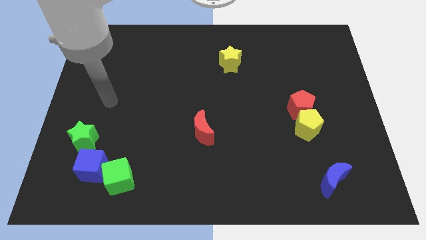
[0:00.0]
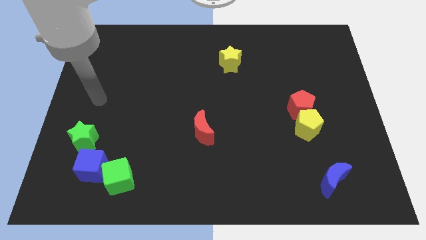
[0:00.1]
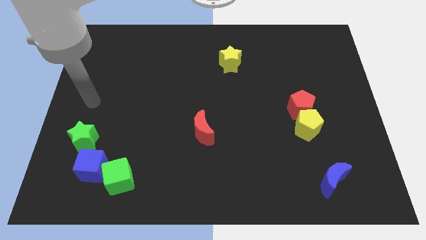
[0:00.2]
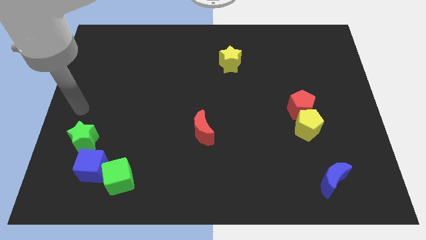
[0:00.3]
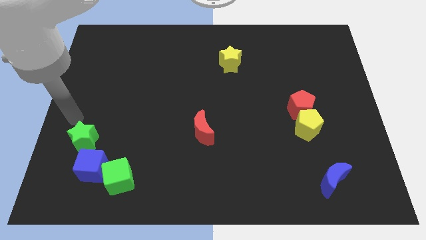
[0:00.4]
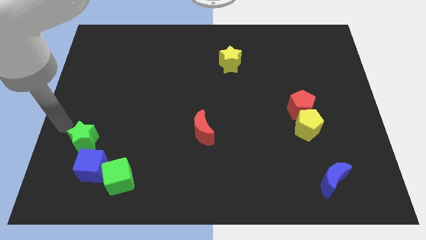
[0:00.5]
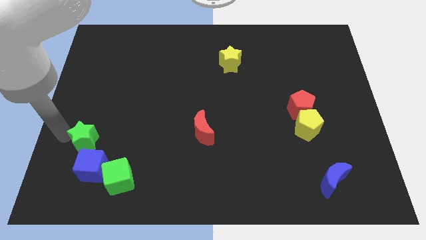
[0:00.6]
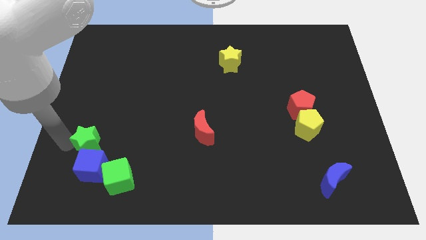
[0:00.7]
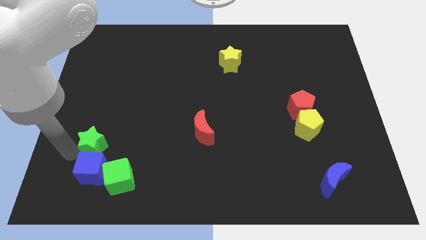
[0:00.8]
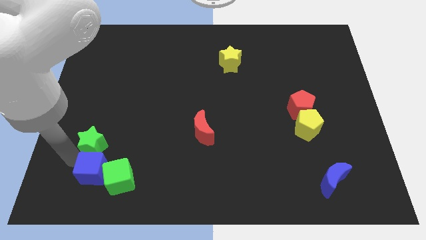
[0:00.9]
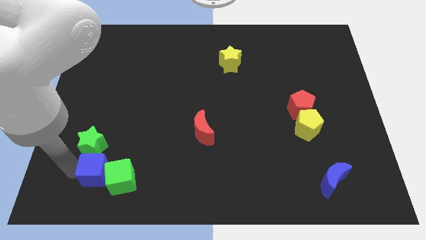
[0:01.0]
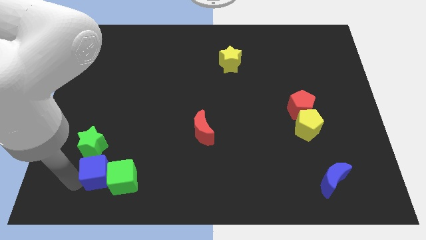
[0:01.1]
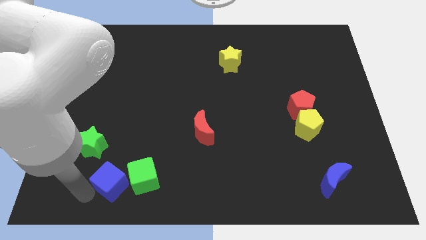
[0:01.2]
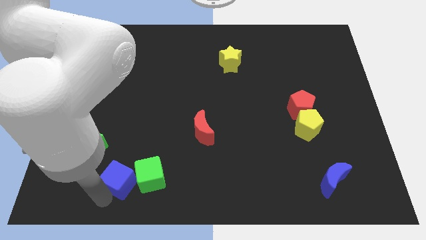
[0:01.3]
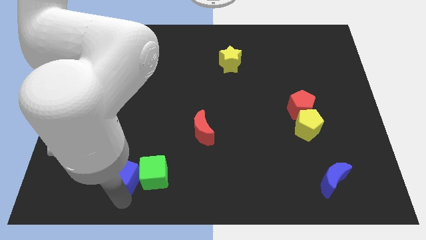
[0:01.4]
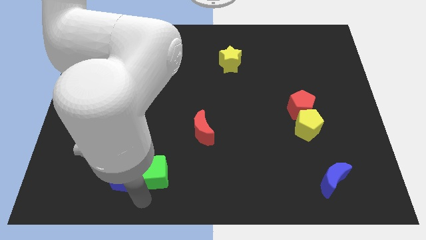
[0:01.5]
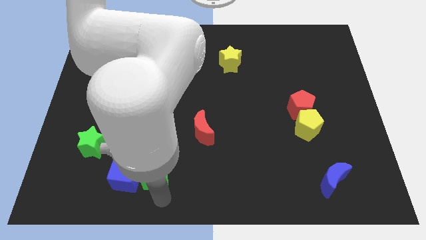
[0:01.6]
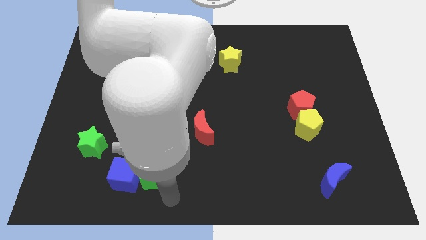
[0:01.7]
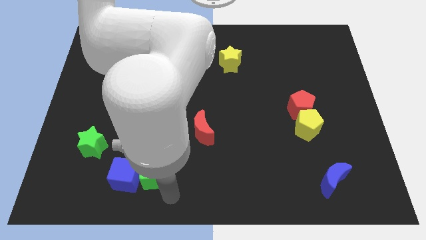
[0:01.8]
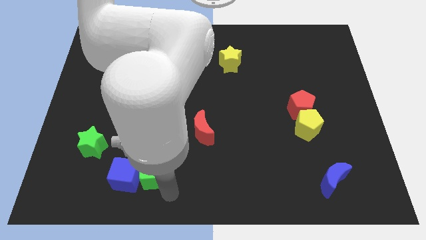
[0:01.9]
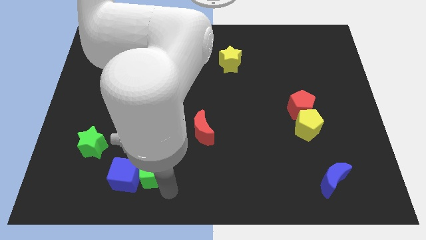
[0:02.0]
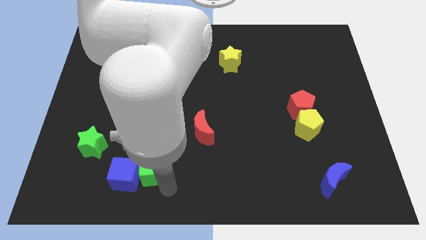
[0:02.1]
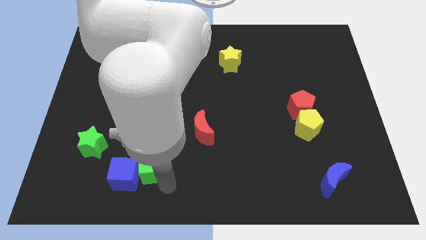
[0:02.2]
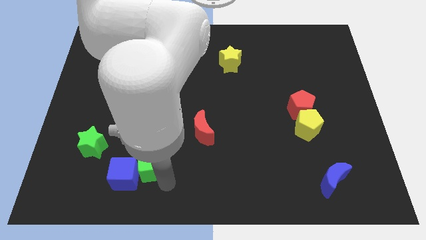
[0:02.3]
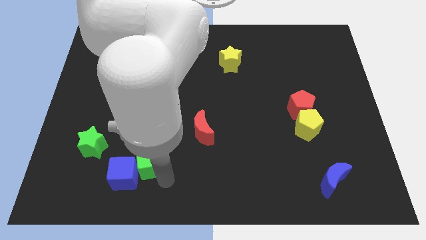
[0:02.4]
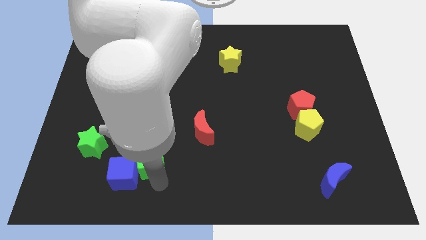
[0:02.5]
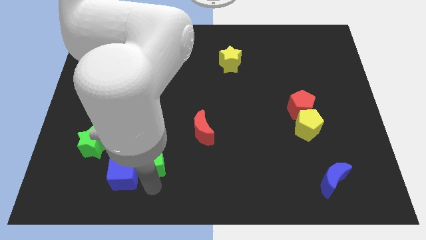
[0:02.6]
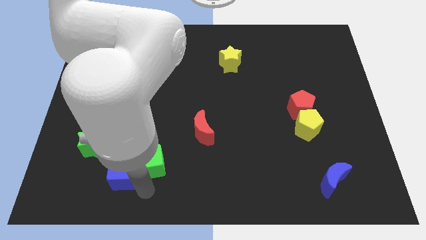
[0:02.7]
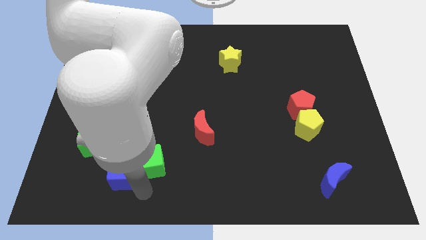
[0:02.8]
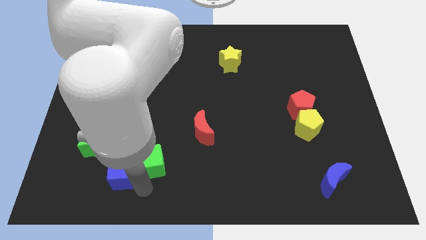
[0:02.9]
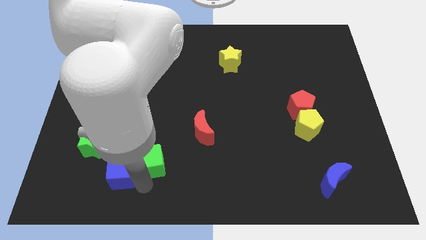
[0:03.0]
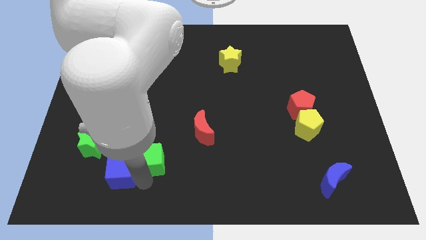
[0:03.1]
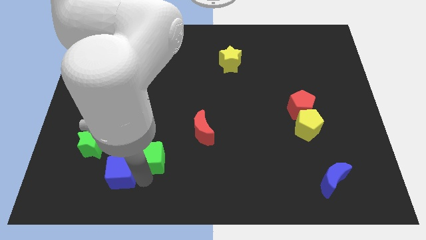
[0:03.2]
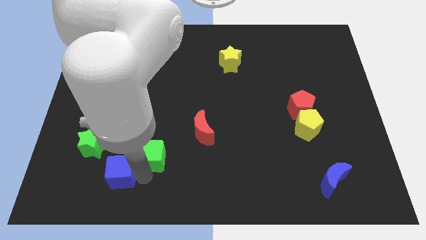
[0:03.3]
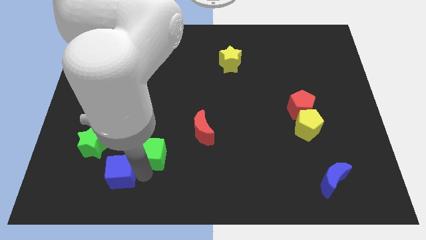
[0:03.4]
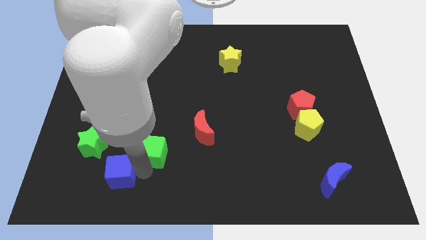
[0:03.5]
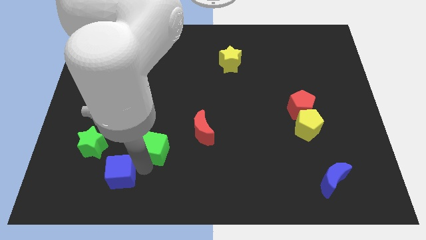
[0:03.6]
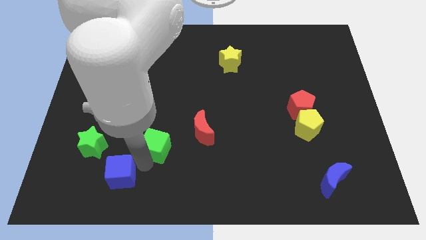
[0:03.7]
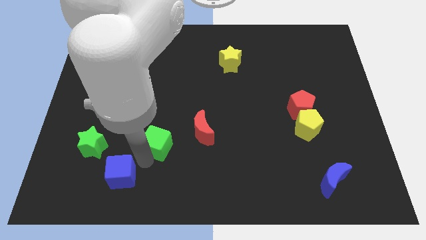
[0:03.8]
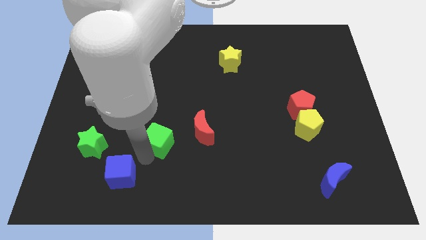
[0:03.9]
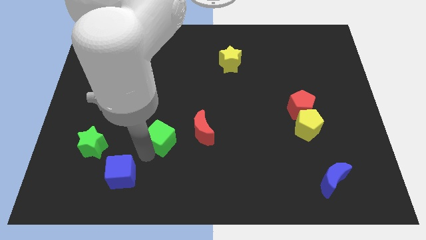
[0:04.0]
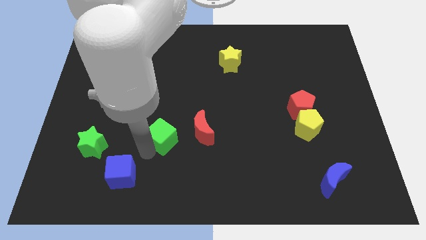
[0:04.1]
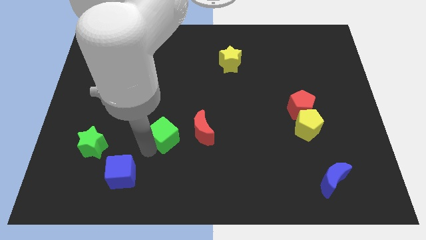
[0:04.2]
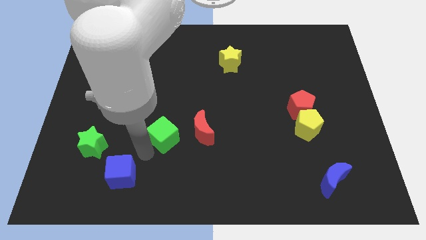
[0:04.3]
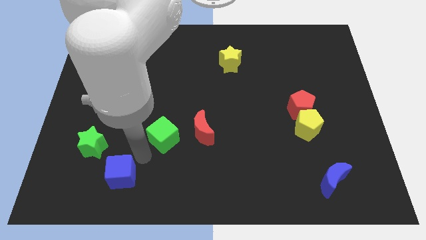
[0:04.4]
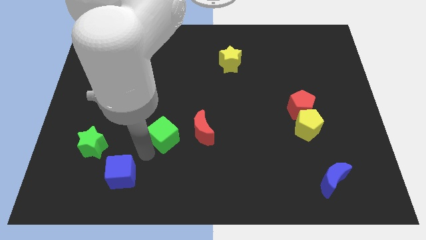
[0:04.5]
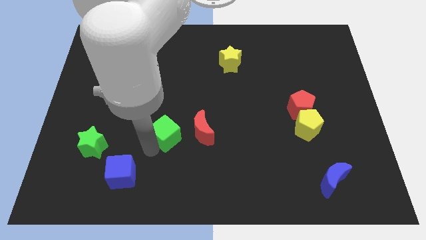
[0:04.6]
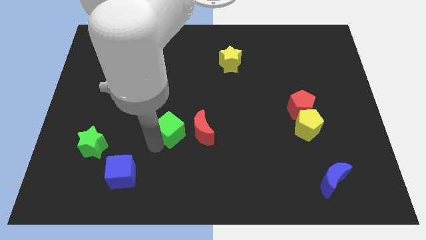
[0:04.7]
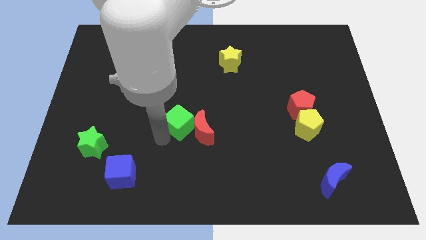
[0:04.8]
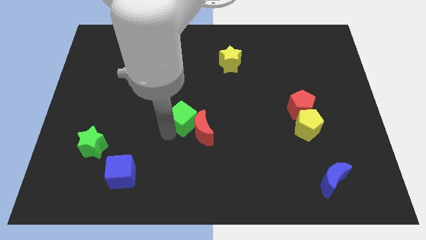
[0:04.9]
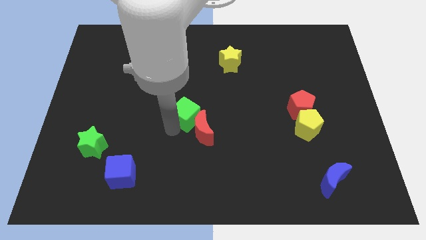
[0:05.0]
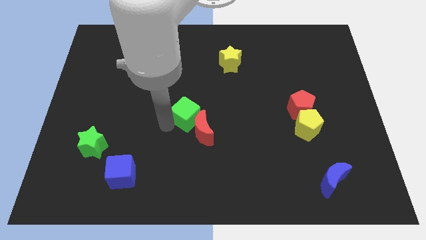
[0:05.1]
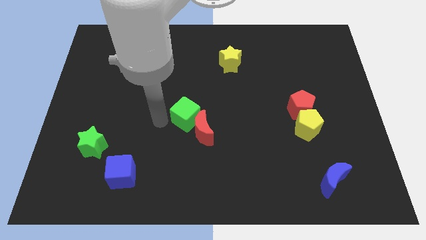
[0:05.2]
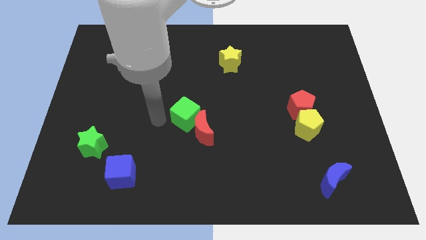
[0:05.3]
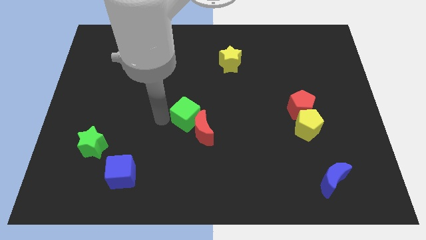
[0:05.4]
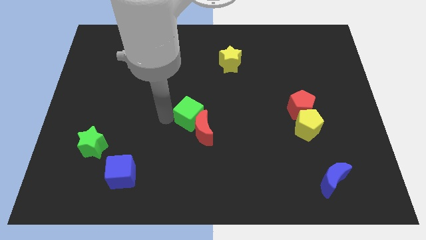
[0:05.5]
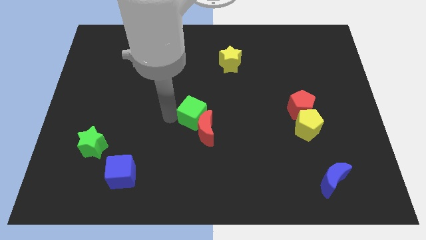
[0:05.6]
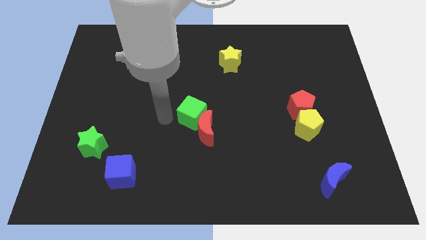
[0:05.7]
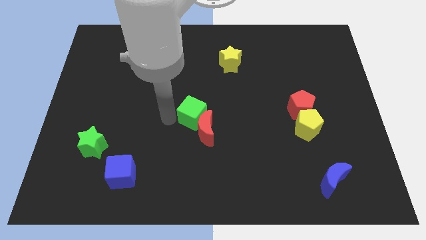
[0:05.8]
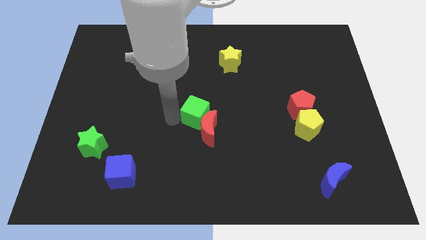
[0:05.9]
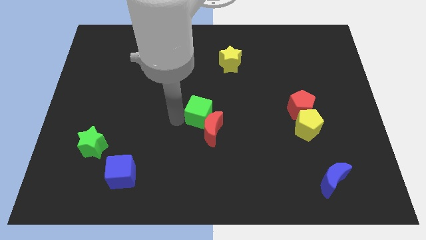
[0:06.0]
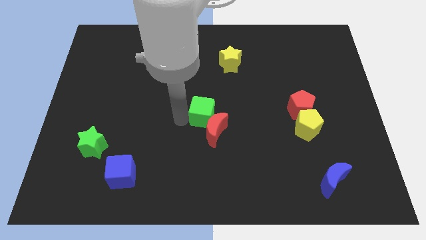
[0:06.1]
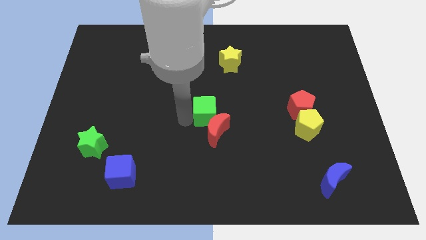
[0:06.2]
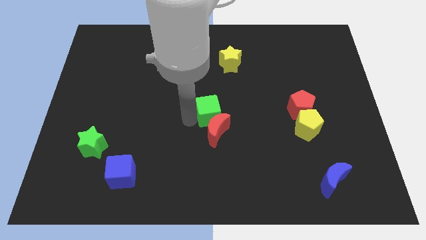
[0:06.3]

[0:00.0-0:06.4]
move the green cube to the top right of the red moon
